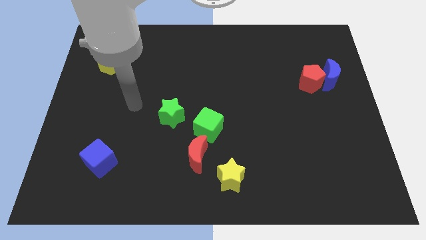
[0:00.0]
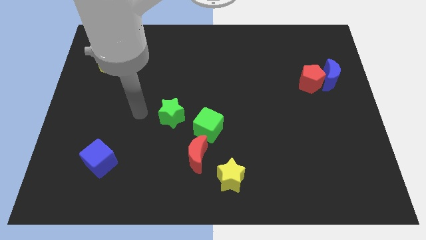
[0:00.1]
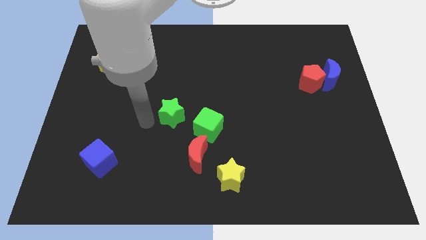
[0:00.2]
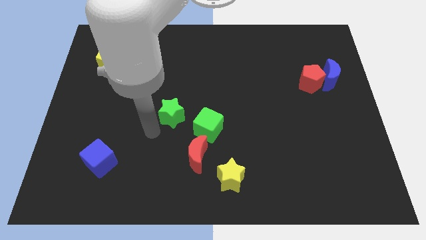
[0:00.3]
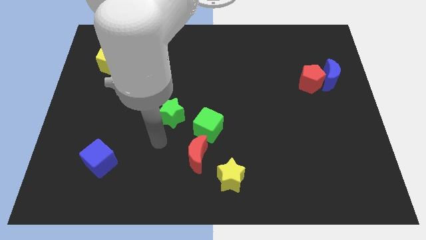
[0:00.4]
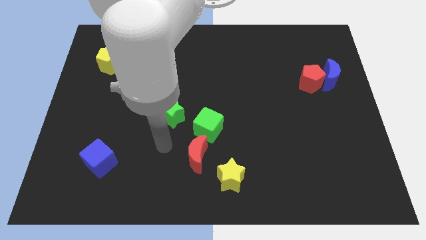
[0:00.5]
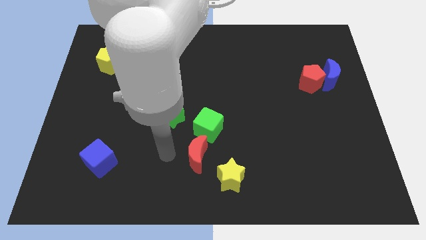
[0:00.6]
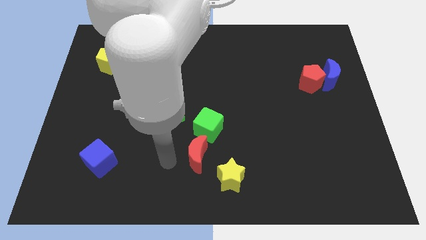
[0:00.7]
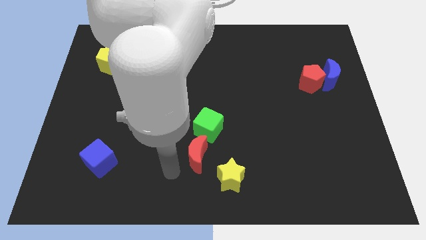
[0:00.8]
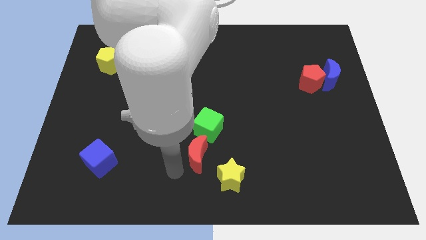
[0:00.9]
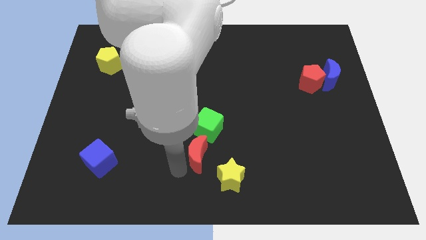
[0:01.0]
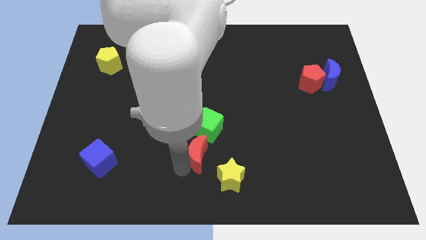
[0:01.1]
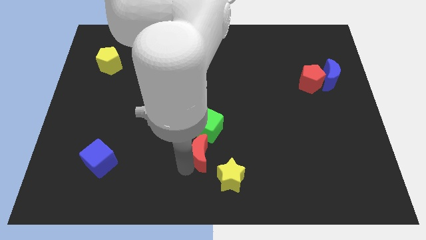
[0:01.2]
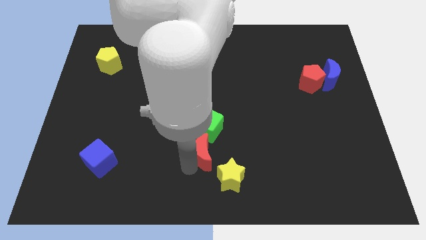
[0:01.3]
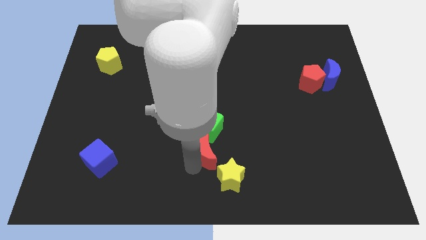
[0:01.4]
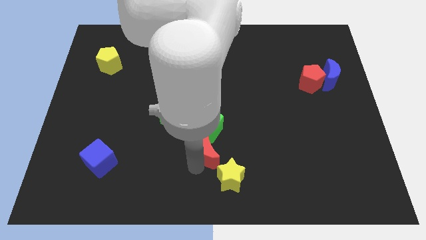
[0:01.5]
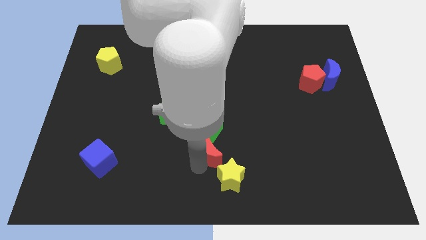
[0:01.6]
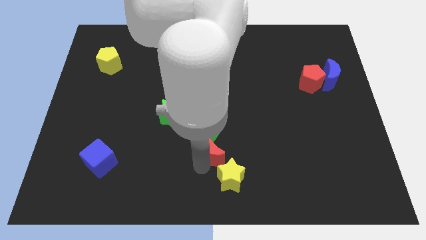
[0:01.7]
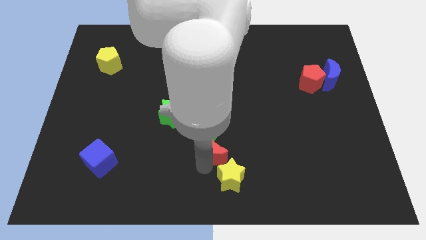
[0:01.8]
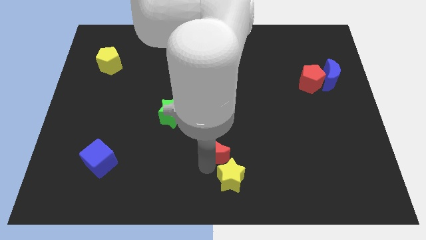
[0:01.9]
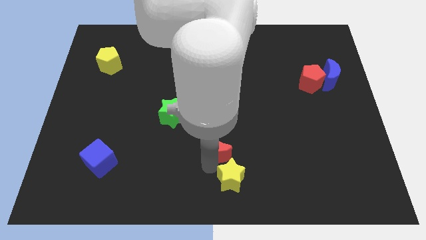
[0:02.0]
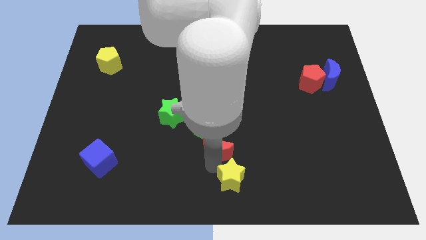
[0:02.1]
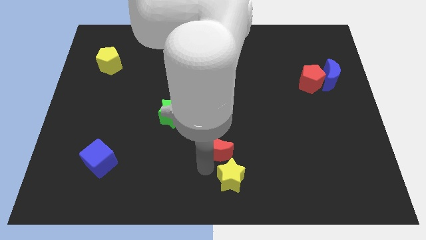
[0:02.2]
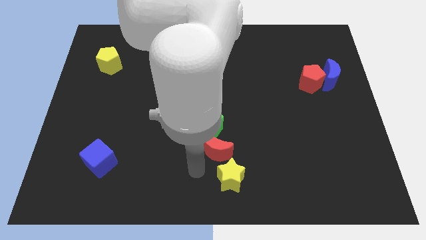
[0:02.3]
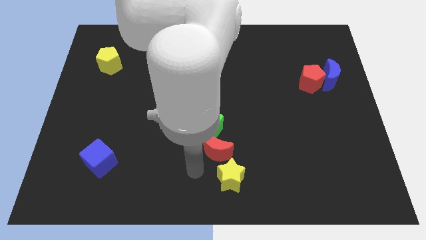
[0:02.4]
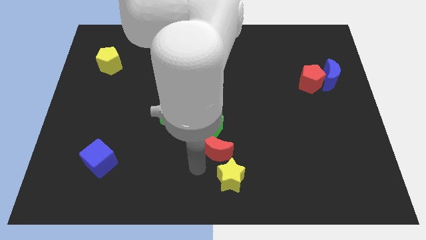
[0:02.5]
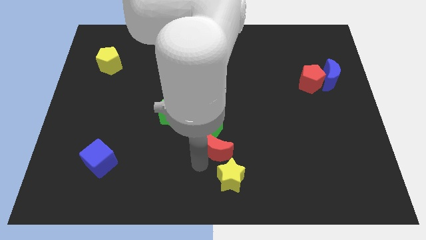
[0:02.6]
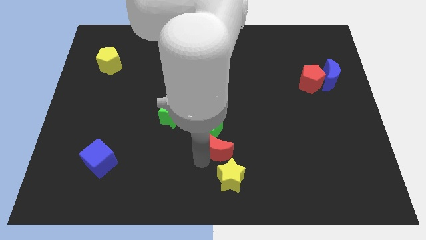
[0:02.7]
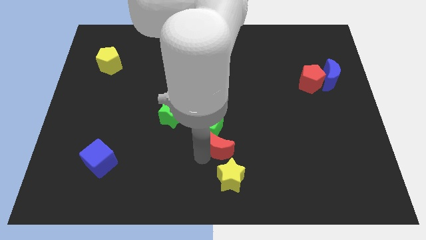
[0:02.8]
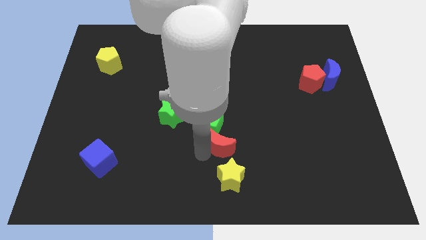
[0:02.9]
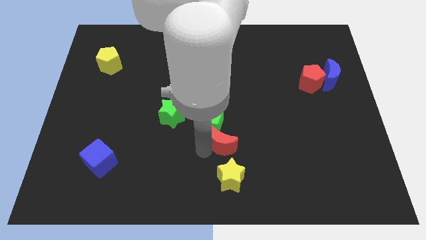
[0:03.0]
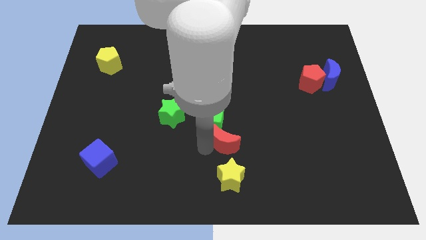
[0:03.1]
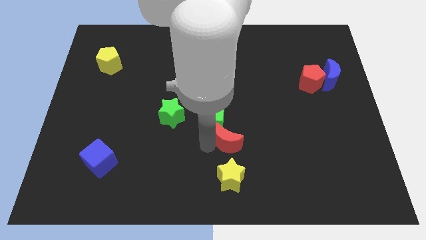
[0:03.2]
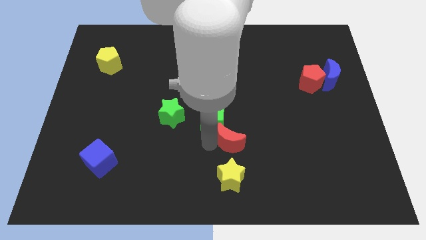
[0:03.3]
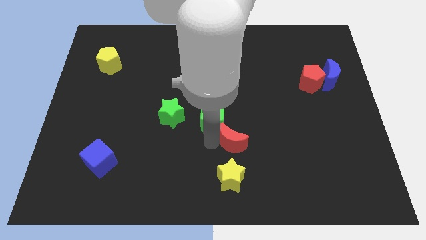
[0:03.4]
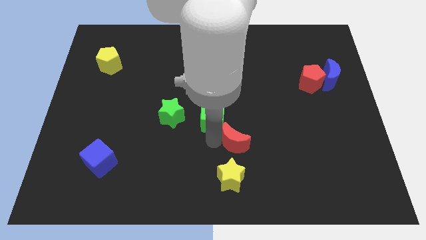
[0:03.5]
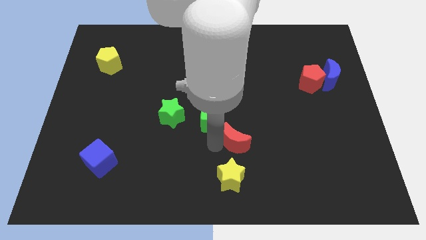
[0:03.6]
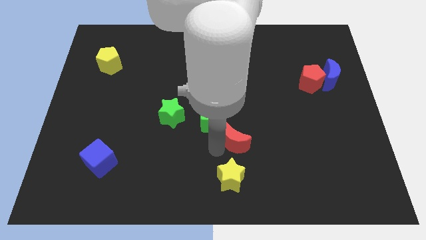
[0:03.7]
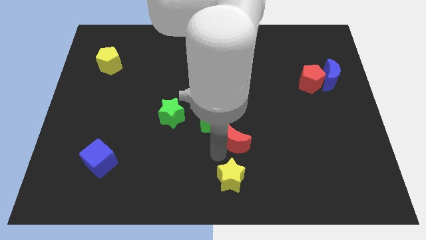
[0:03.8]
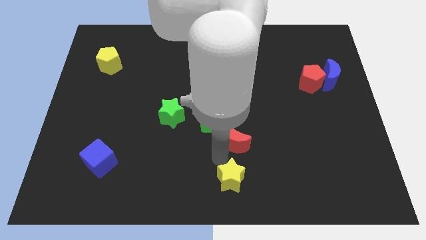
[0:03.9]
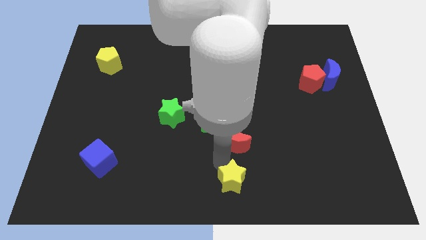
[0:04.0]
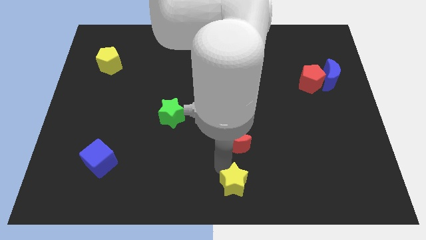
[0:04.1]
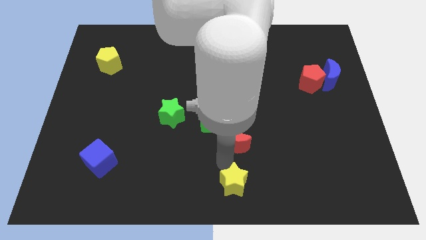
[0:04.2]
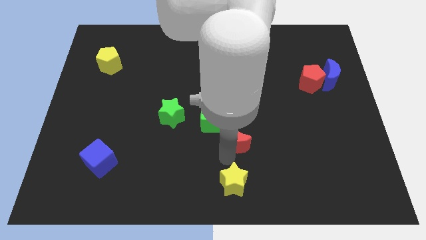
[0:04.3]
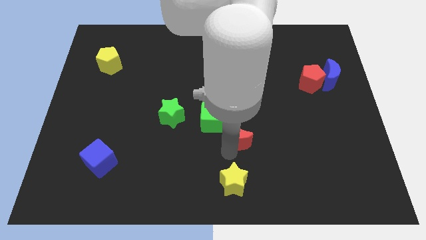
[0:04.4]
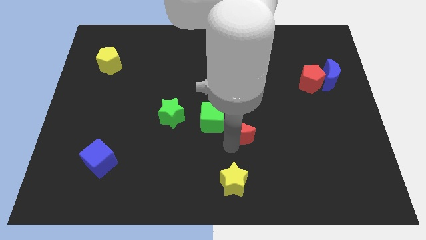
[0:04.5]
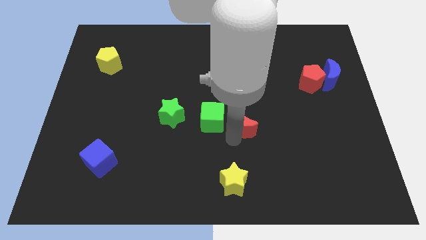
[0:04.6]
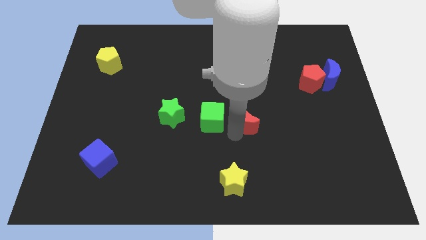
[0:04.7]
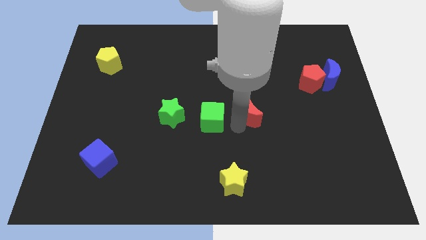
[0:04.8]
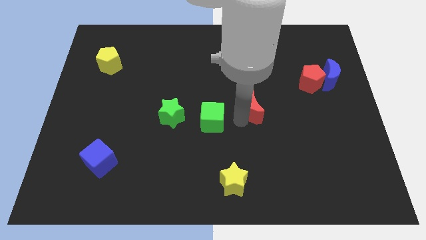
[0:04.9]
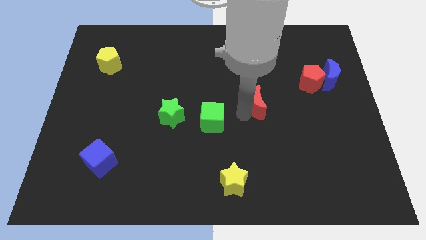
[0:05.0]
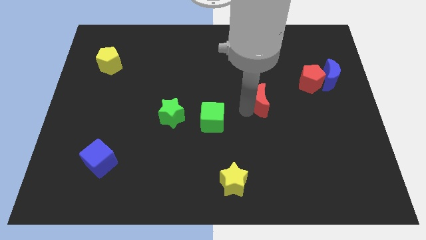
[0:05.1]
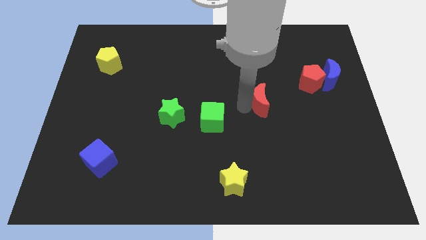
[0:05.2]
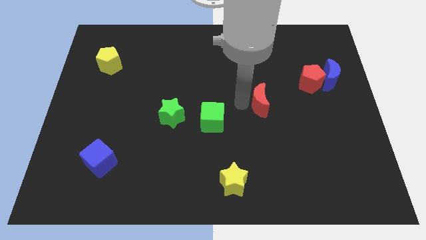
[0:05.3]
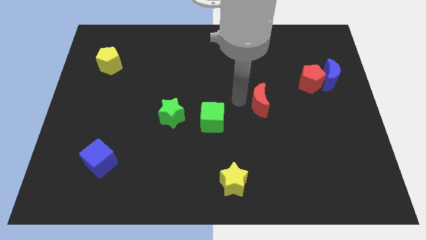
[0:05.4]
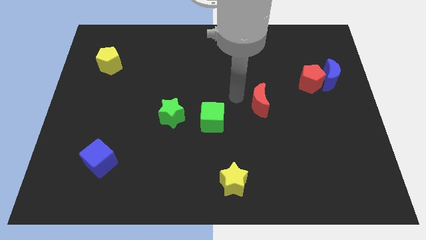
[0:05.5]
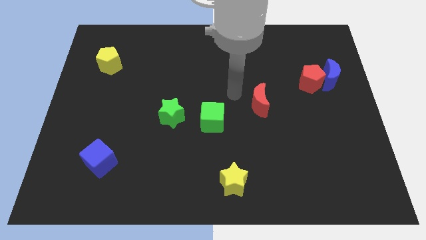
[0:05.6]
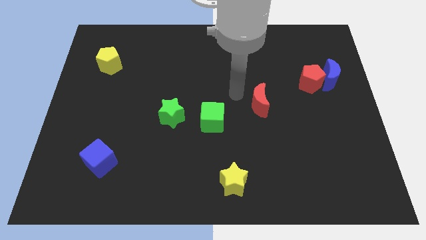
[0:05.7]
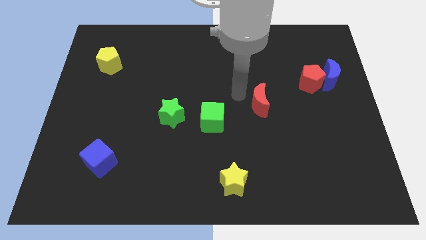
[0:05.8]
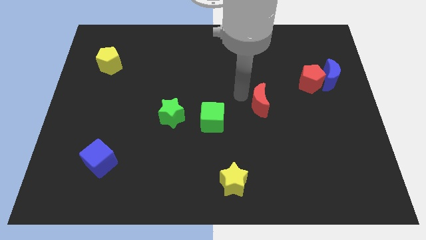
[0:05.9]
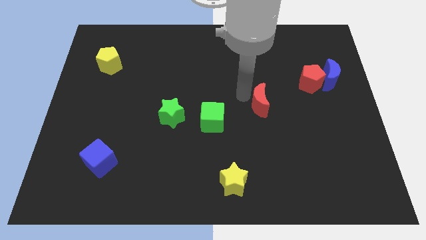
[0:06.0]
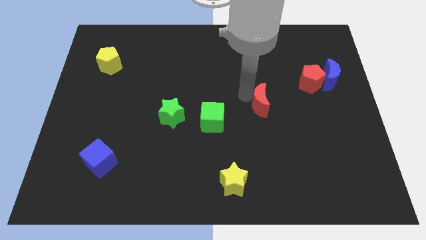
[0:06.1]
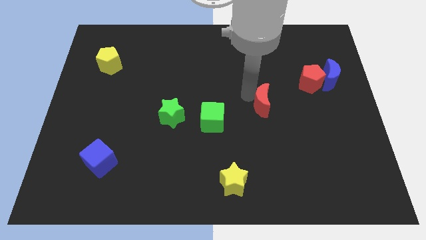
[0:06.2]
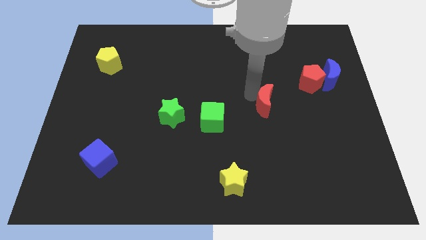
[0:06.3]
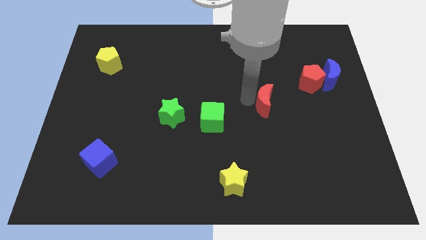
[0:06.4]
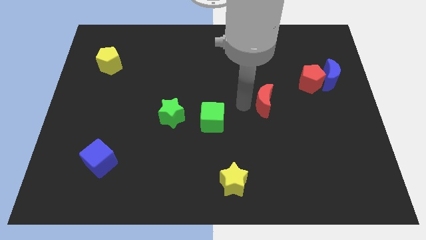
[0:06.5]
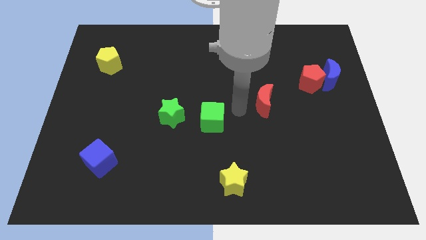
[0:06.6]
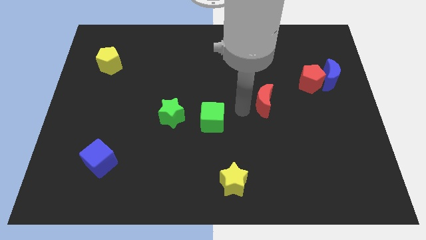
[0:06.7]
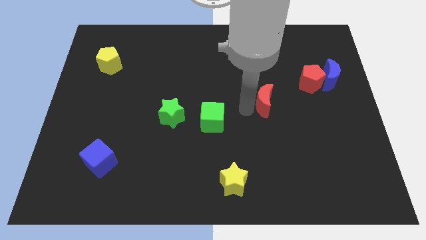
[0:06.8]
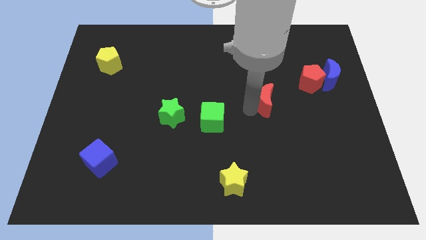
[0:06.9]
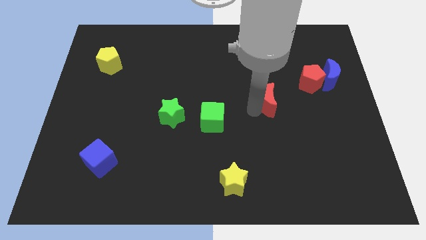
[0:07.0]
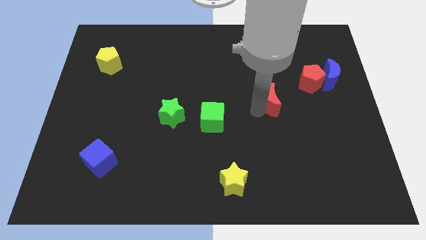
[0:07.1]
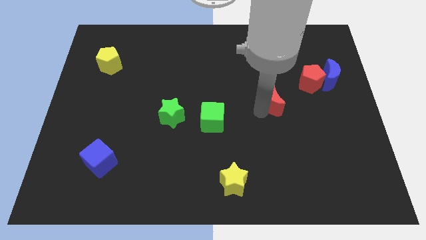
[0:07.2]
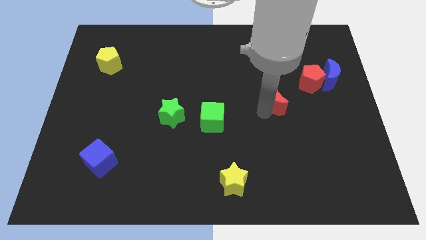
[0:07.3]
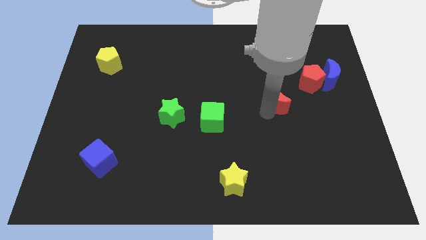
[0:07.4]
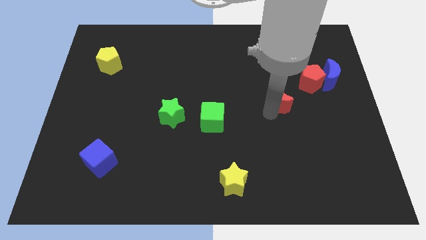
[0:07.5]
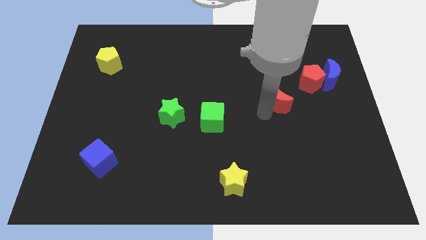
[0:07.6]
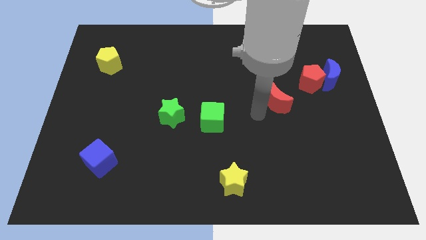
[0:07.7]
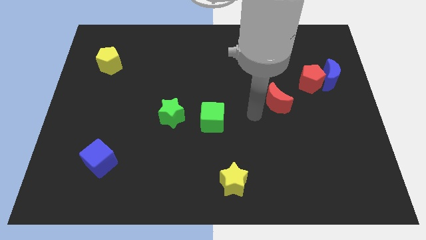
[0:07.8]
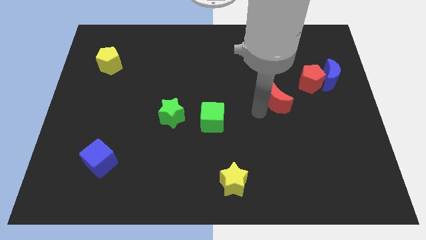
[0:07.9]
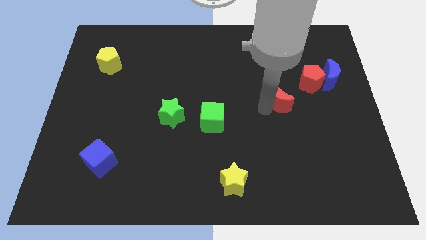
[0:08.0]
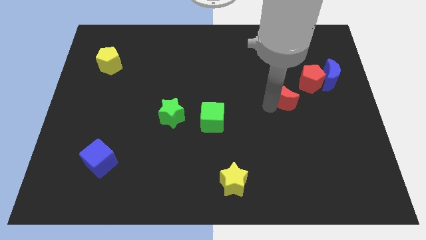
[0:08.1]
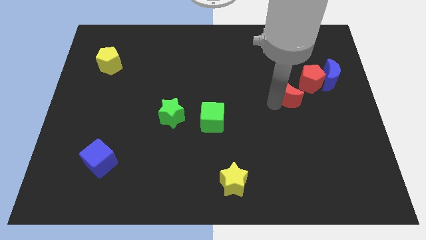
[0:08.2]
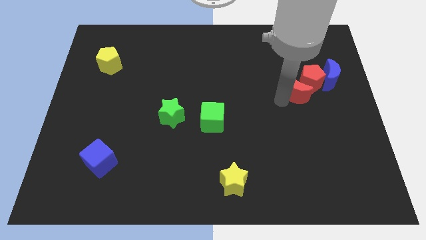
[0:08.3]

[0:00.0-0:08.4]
put the red moon next to the red pentagon
